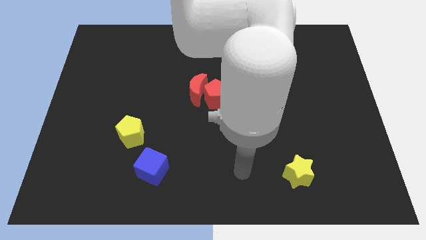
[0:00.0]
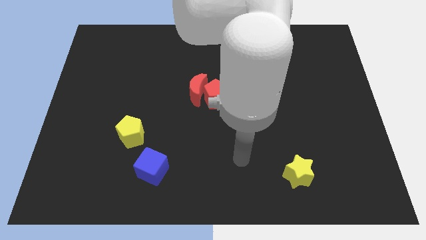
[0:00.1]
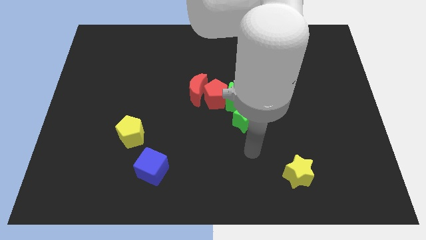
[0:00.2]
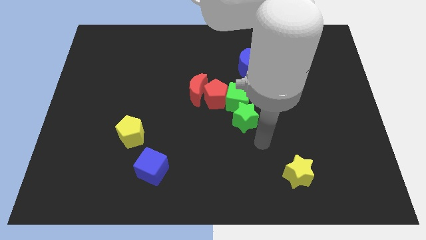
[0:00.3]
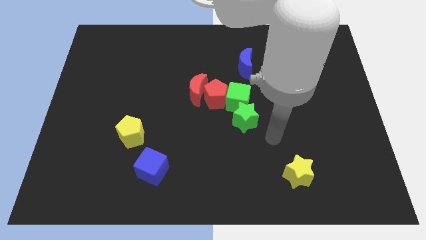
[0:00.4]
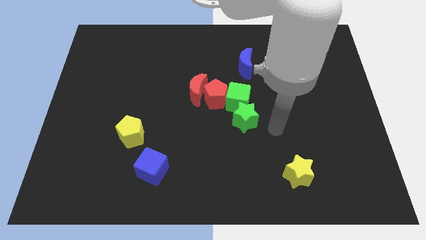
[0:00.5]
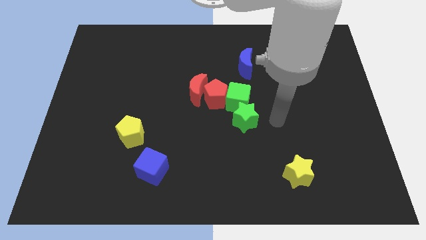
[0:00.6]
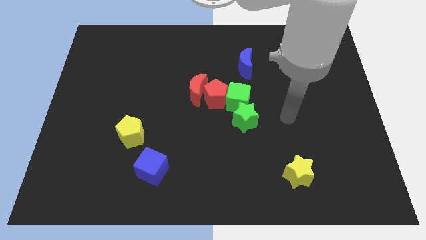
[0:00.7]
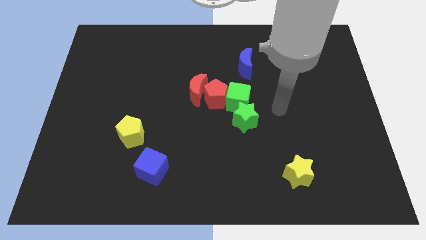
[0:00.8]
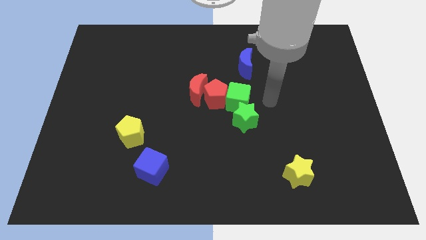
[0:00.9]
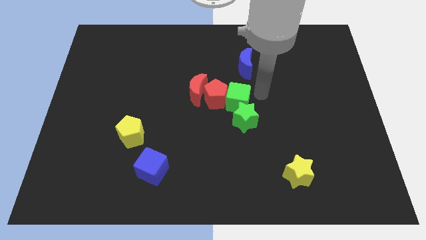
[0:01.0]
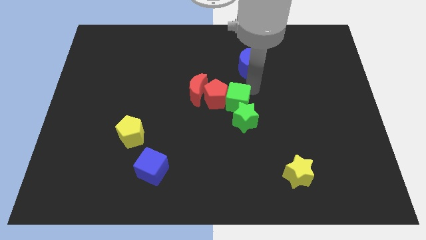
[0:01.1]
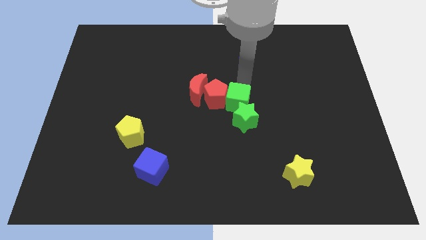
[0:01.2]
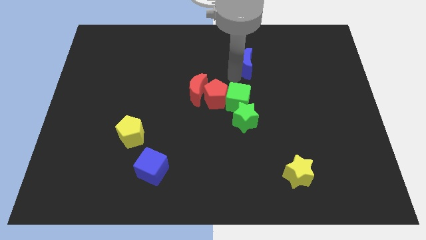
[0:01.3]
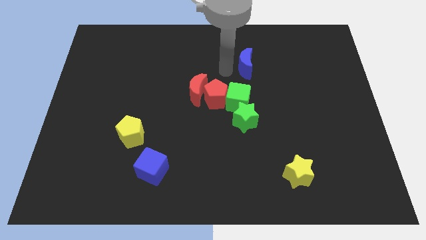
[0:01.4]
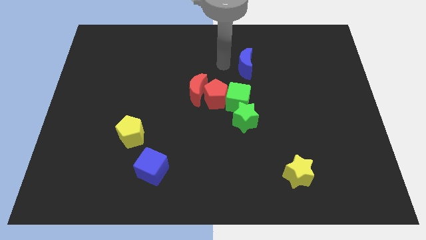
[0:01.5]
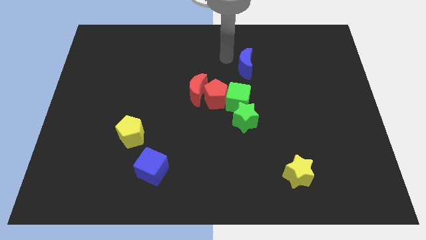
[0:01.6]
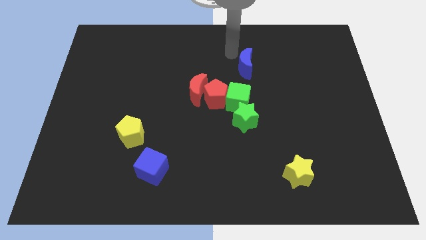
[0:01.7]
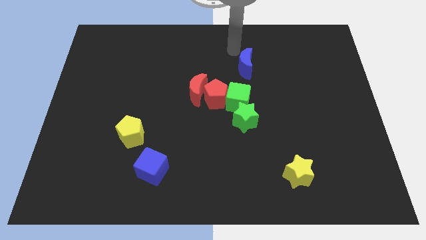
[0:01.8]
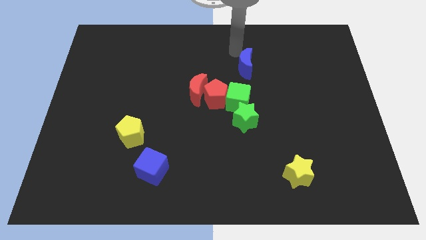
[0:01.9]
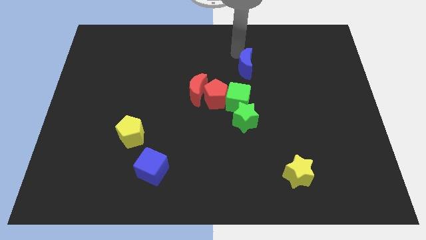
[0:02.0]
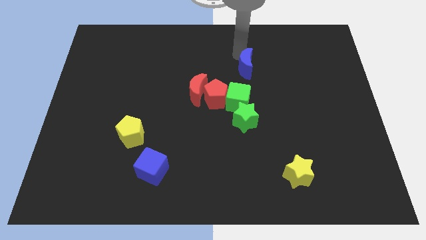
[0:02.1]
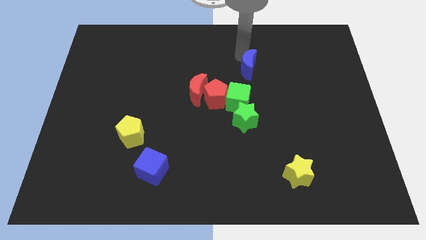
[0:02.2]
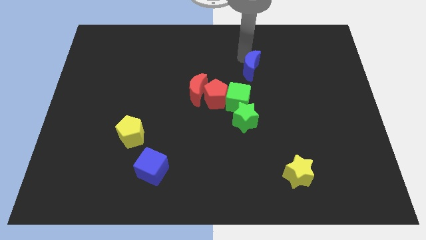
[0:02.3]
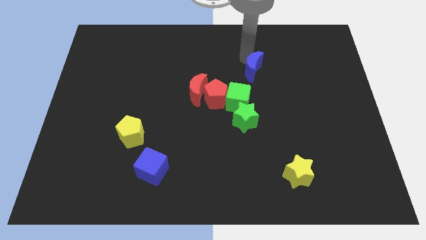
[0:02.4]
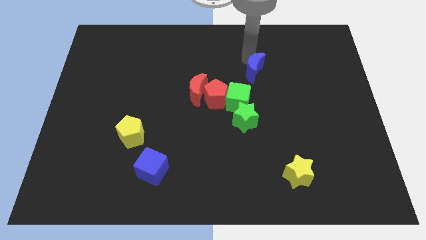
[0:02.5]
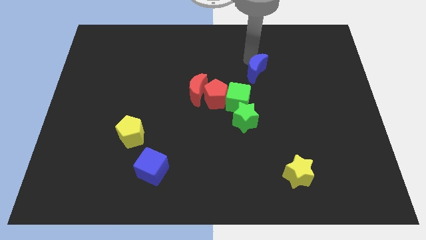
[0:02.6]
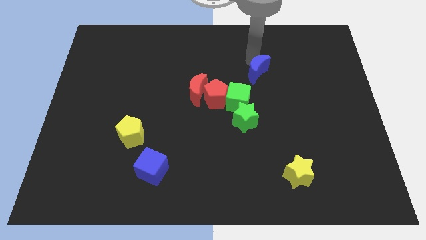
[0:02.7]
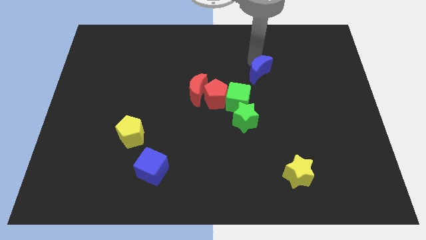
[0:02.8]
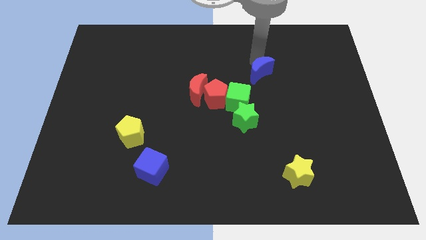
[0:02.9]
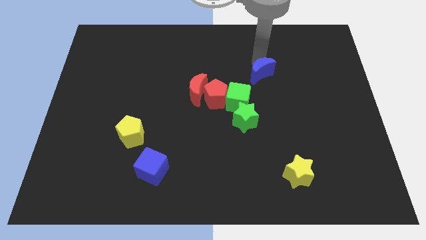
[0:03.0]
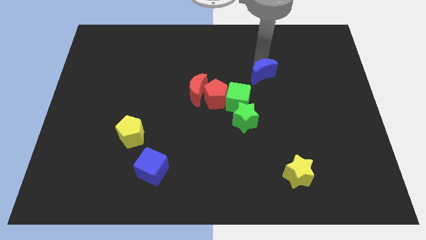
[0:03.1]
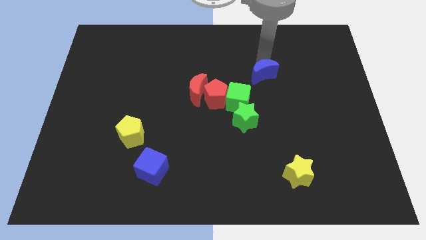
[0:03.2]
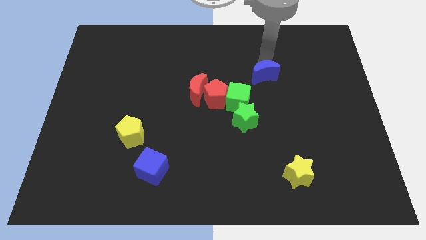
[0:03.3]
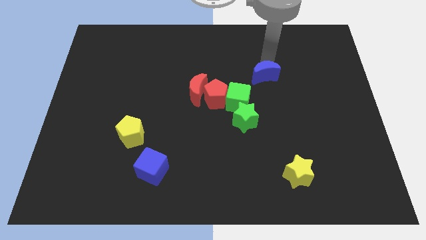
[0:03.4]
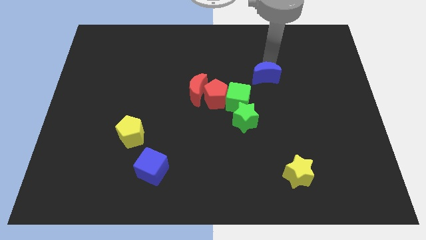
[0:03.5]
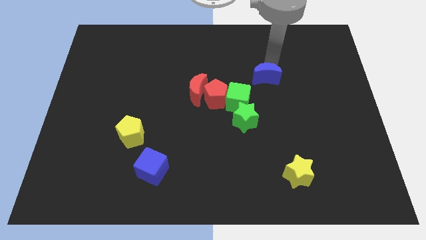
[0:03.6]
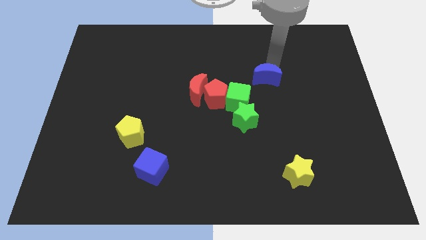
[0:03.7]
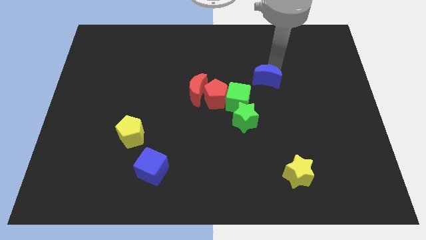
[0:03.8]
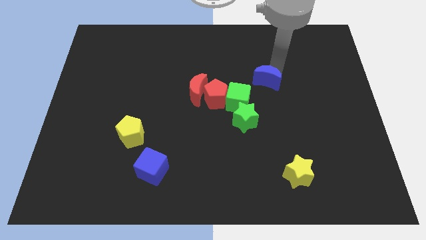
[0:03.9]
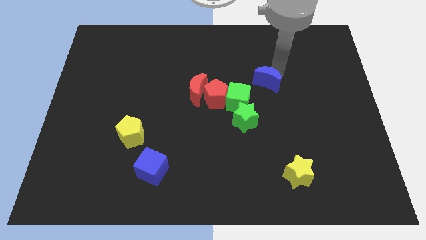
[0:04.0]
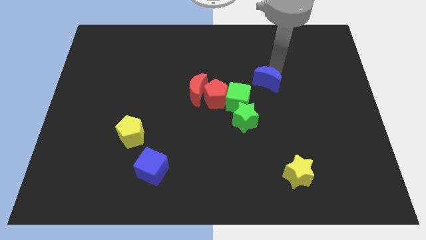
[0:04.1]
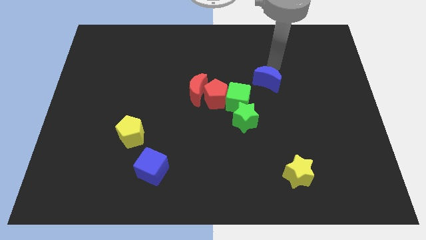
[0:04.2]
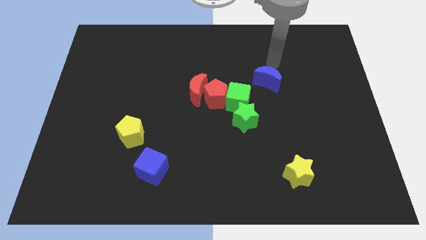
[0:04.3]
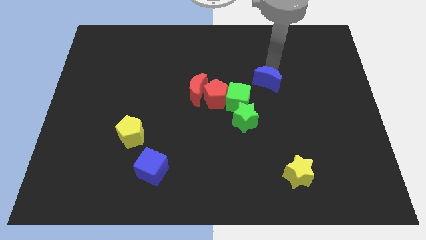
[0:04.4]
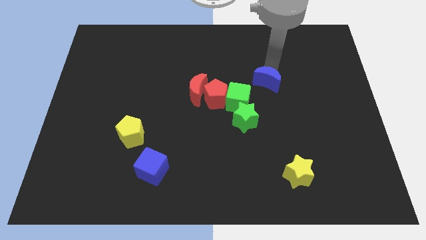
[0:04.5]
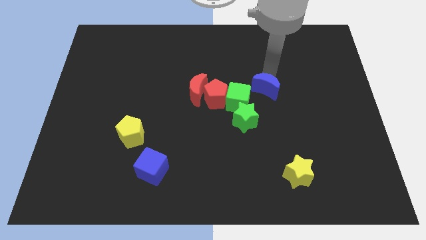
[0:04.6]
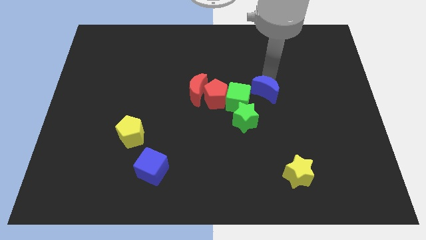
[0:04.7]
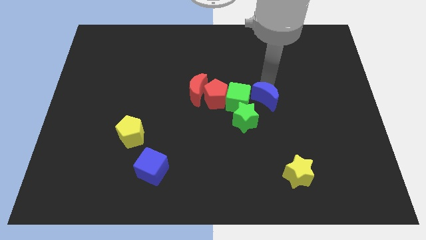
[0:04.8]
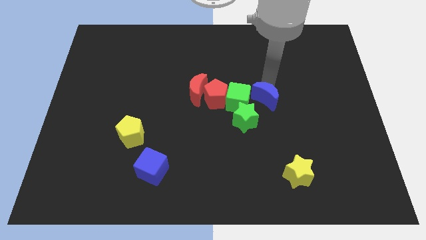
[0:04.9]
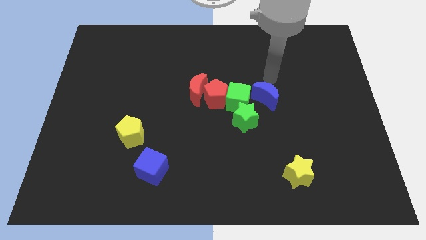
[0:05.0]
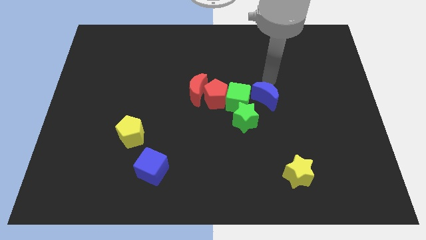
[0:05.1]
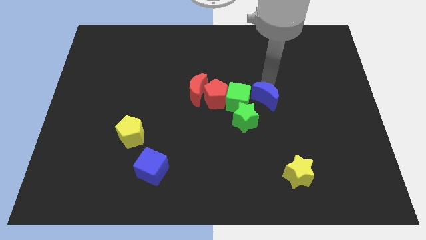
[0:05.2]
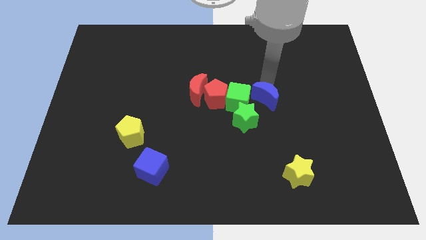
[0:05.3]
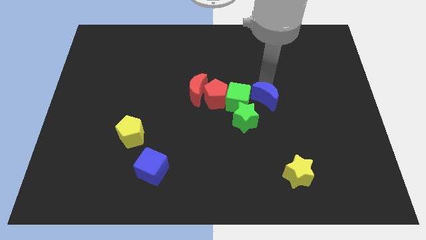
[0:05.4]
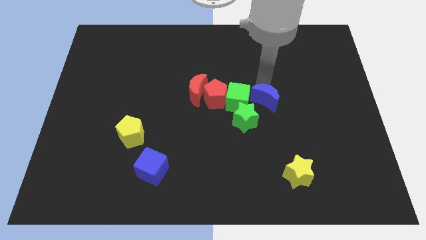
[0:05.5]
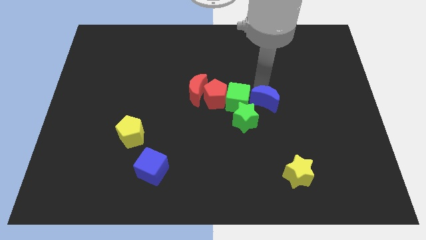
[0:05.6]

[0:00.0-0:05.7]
move the blue moon diagonally down and to the right of the green cube

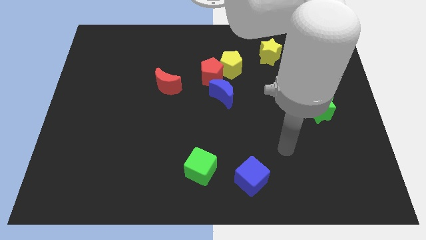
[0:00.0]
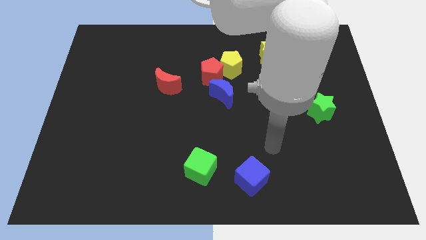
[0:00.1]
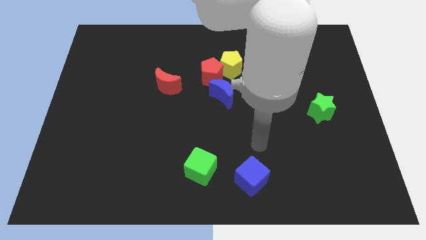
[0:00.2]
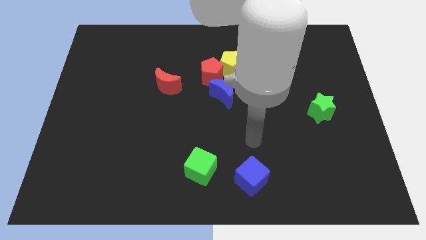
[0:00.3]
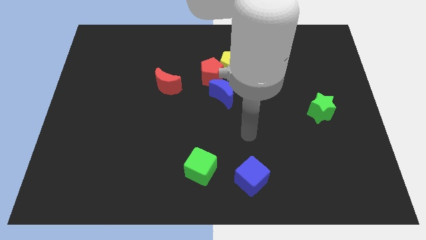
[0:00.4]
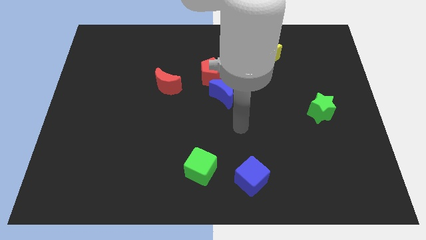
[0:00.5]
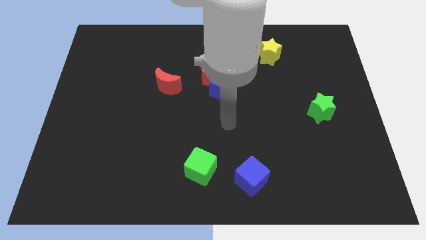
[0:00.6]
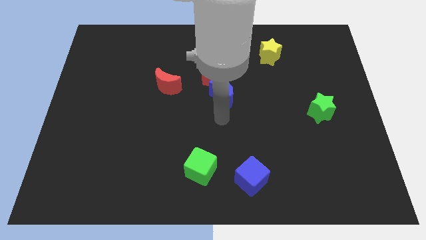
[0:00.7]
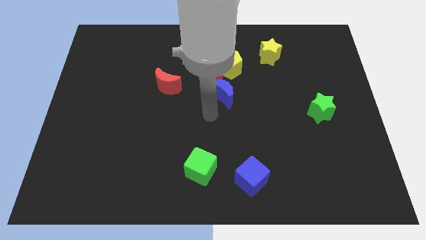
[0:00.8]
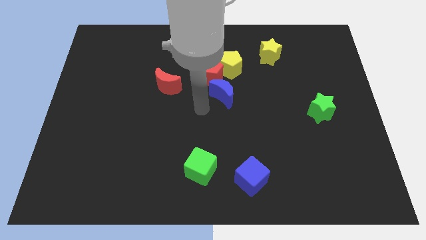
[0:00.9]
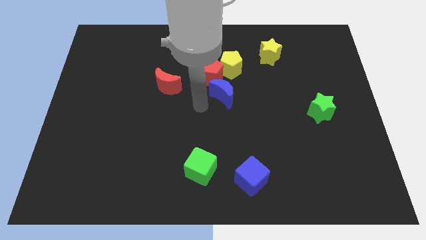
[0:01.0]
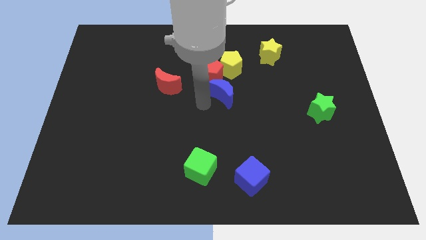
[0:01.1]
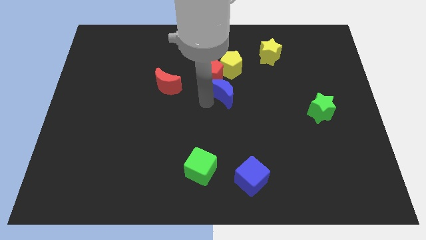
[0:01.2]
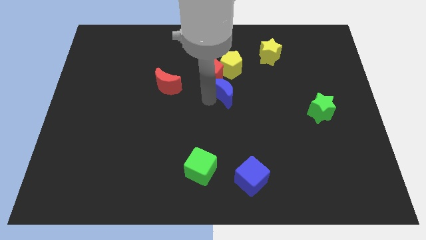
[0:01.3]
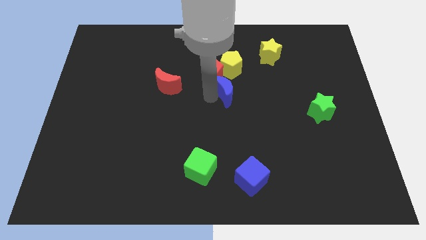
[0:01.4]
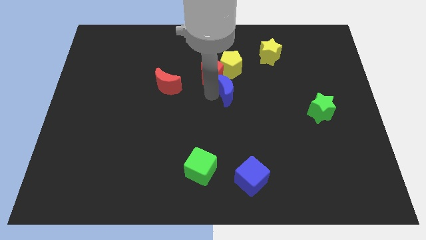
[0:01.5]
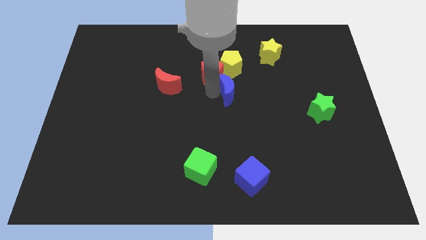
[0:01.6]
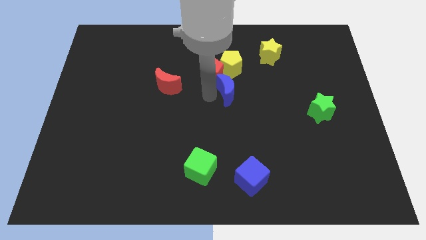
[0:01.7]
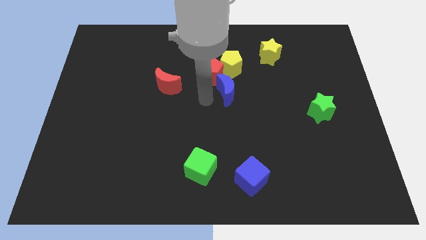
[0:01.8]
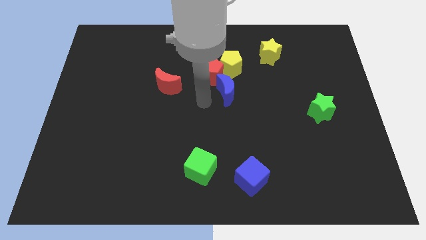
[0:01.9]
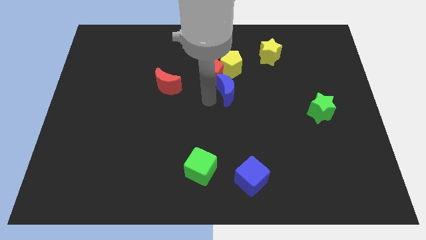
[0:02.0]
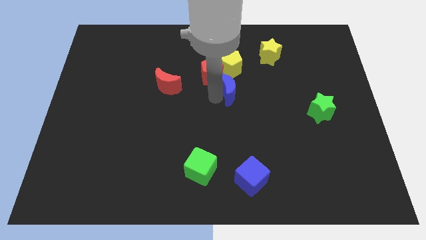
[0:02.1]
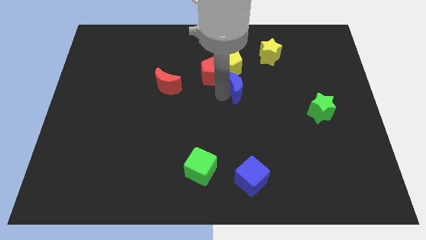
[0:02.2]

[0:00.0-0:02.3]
slide the blue moon diagonally down and to the right of the yellow pentagon
